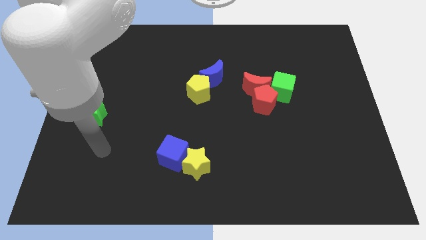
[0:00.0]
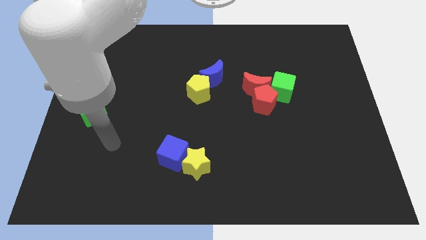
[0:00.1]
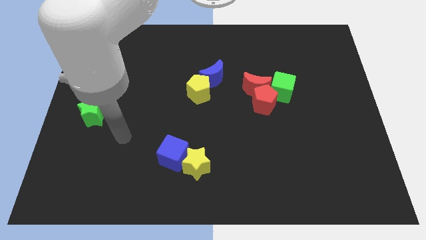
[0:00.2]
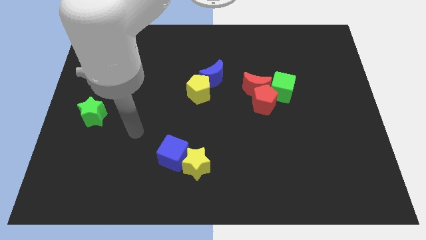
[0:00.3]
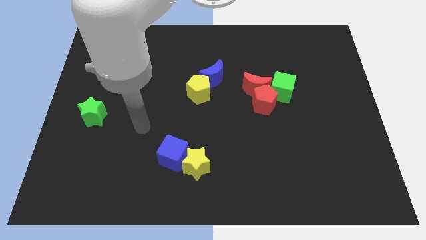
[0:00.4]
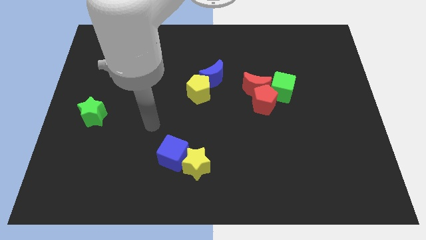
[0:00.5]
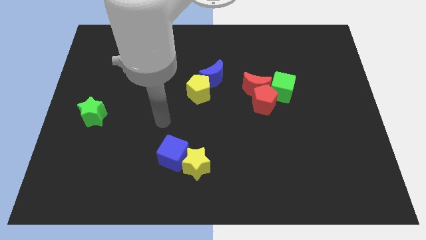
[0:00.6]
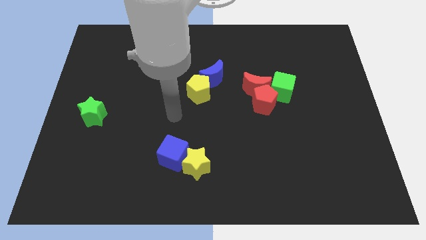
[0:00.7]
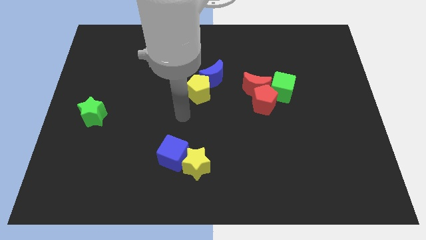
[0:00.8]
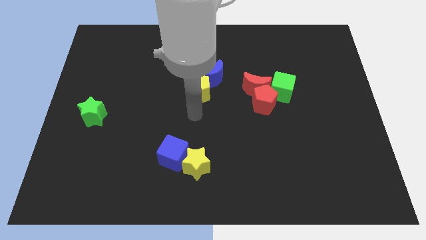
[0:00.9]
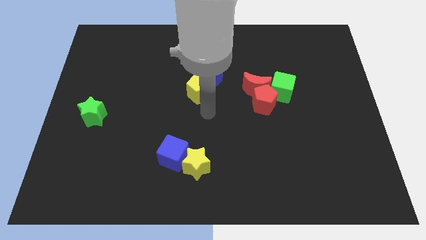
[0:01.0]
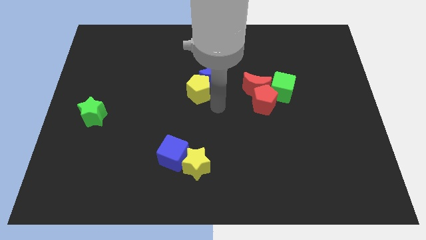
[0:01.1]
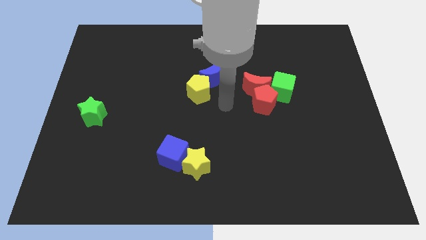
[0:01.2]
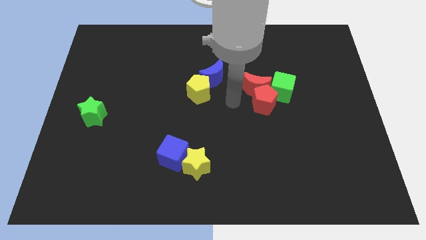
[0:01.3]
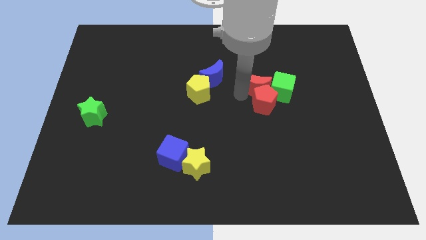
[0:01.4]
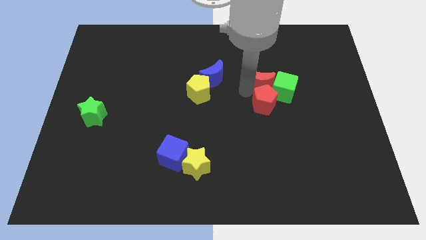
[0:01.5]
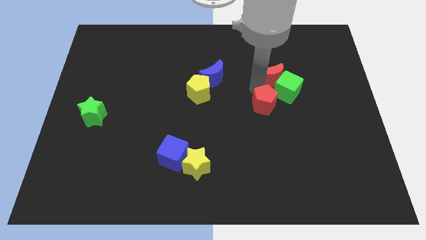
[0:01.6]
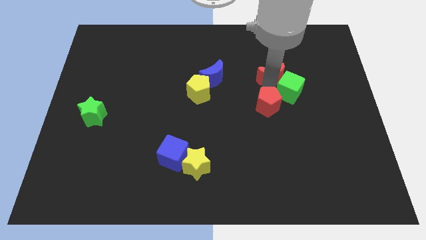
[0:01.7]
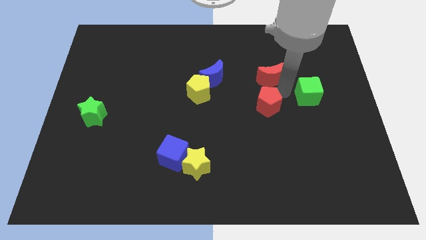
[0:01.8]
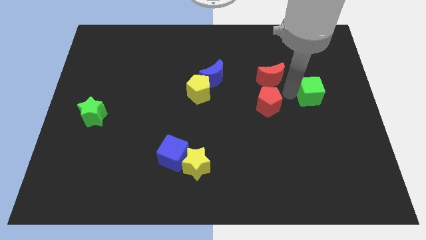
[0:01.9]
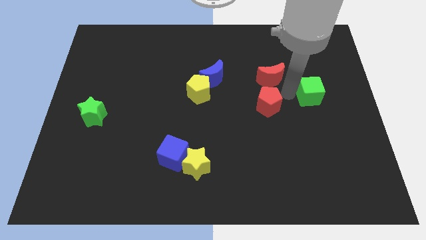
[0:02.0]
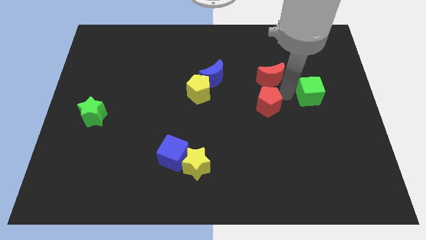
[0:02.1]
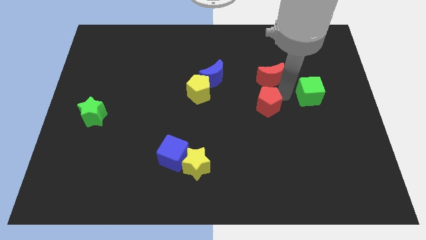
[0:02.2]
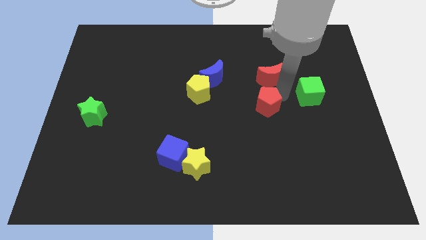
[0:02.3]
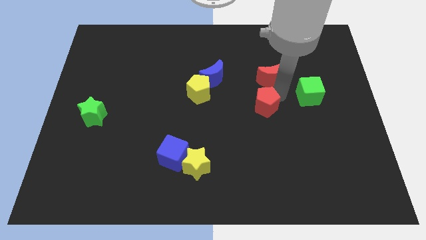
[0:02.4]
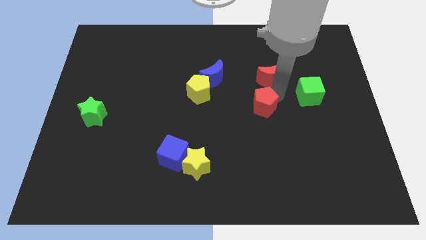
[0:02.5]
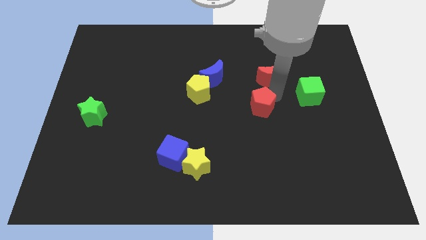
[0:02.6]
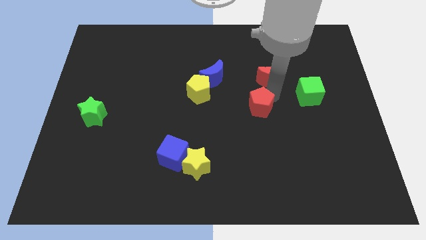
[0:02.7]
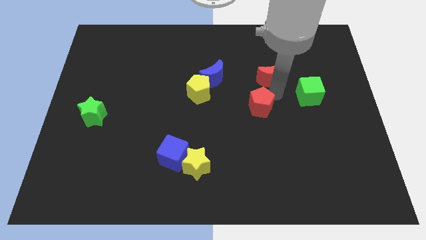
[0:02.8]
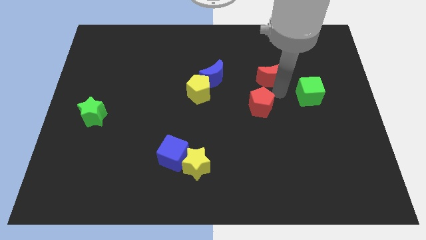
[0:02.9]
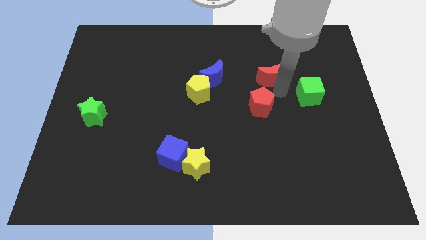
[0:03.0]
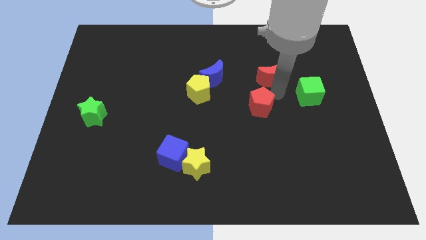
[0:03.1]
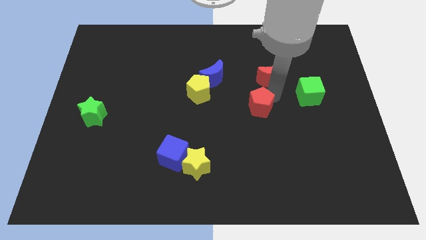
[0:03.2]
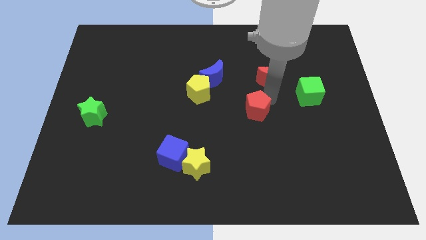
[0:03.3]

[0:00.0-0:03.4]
pull the red pentagon apart from the red moon and green cube

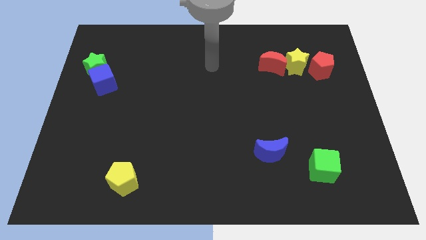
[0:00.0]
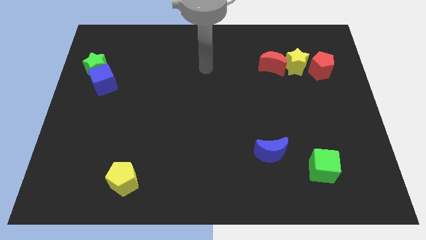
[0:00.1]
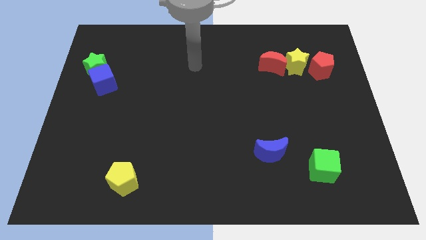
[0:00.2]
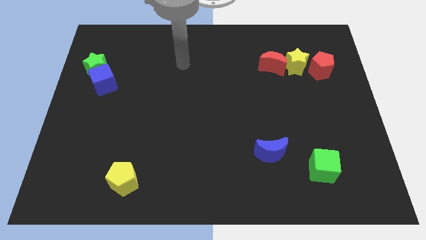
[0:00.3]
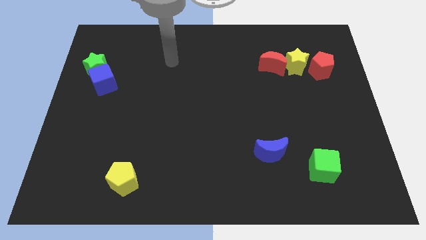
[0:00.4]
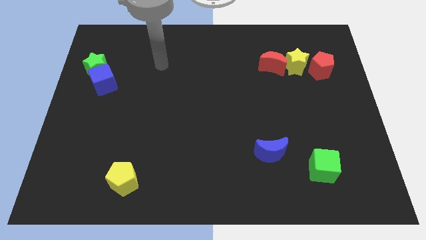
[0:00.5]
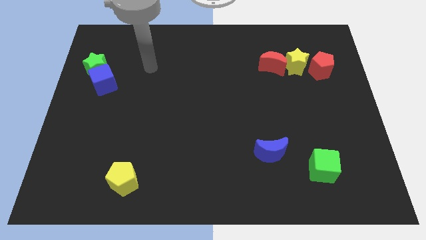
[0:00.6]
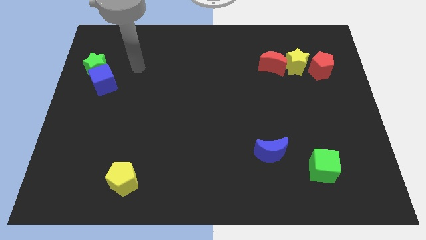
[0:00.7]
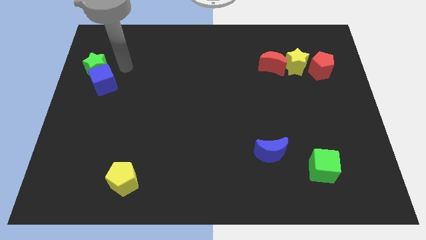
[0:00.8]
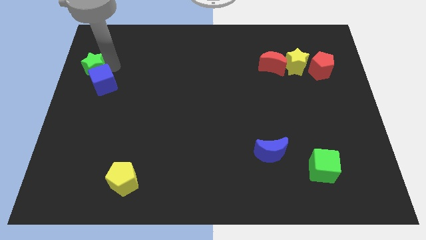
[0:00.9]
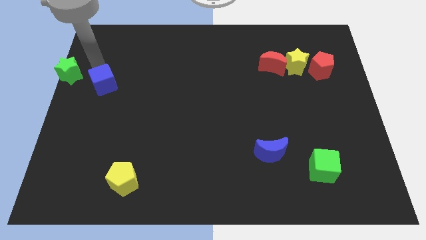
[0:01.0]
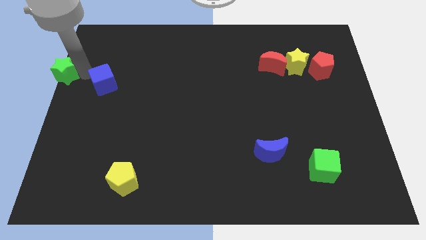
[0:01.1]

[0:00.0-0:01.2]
separate the blue cube from the green star

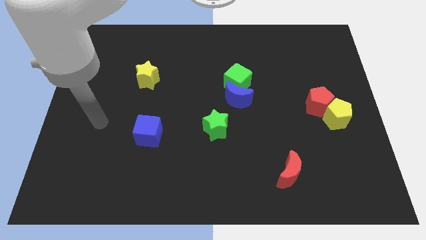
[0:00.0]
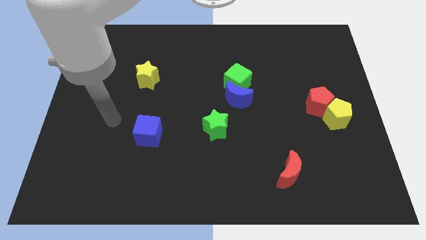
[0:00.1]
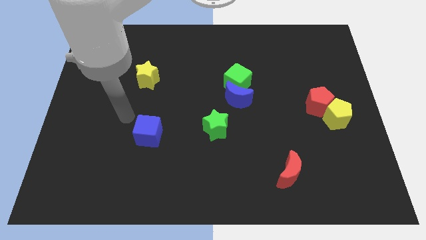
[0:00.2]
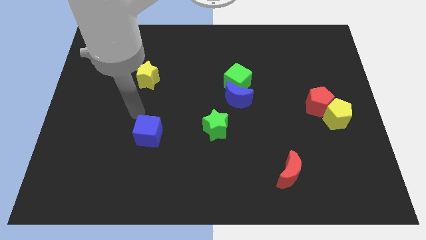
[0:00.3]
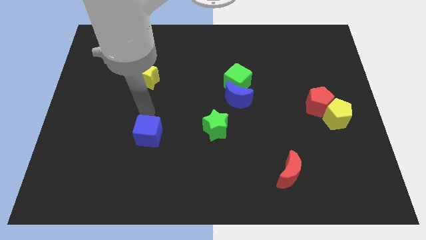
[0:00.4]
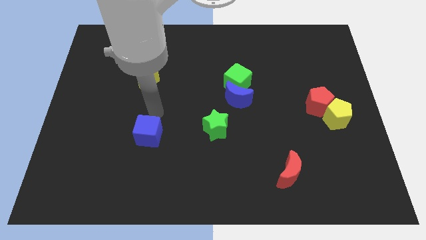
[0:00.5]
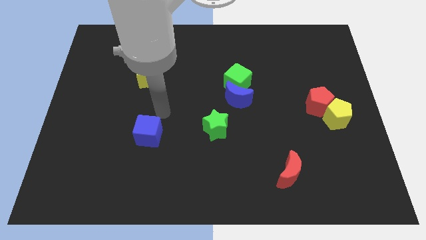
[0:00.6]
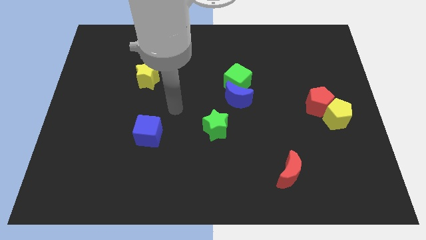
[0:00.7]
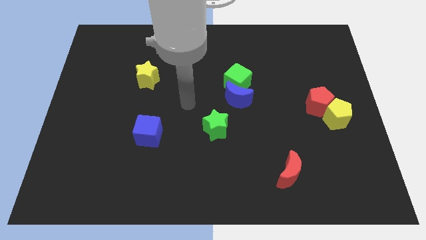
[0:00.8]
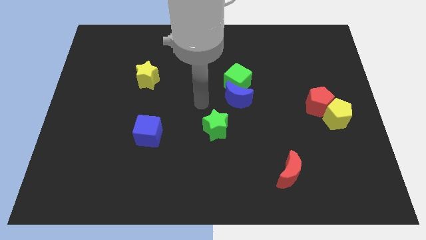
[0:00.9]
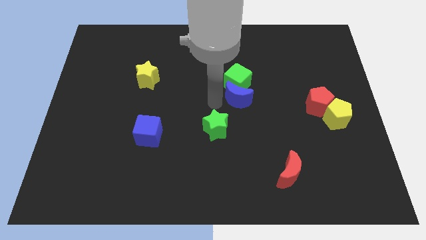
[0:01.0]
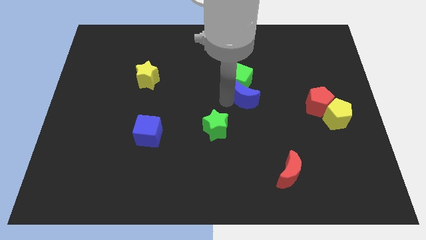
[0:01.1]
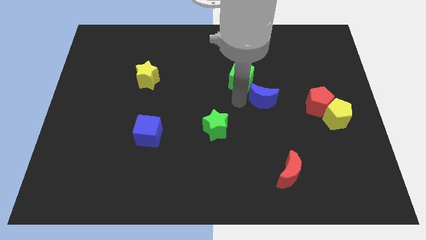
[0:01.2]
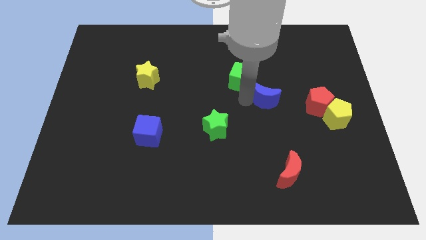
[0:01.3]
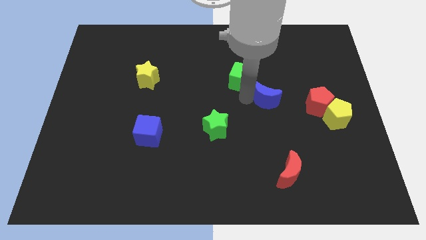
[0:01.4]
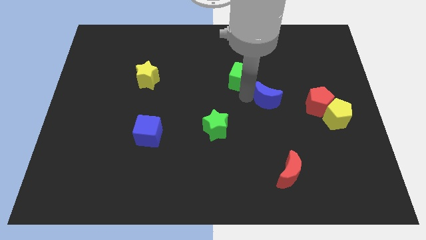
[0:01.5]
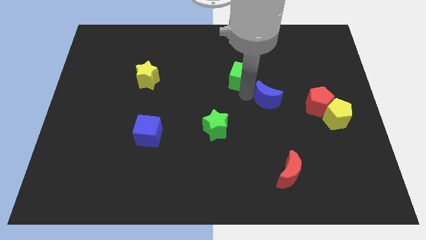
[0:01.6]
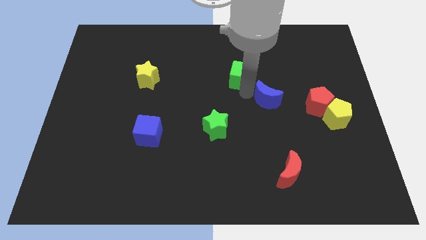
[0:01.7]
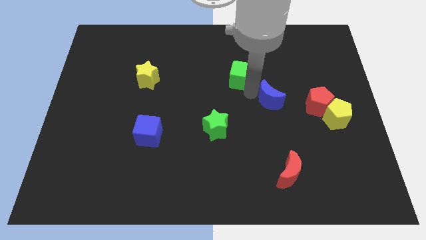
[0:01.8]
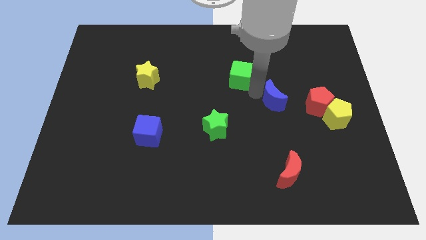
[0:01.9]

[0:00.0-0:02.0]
move the green cube away from the blue moon

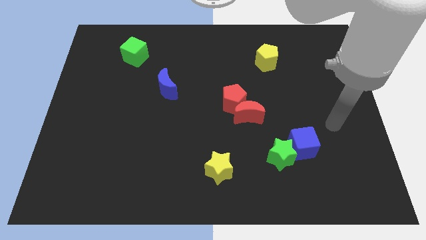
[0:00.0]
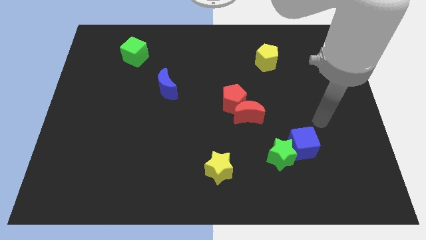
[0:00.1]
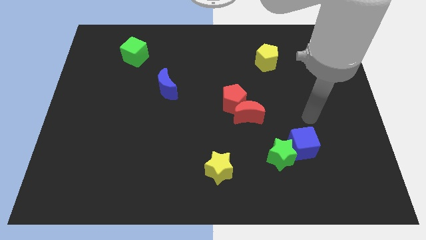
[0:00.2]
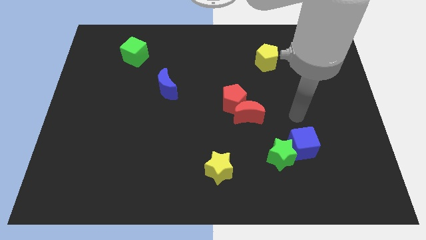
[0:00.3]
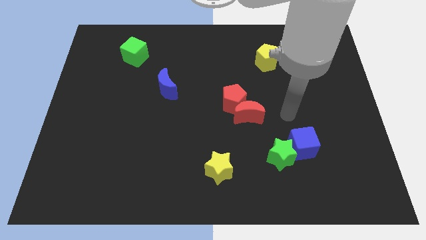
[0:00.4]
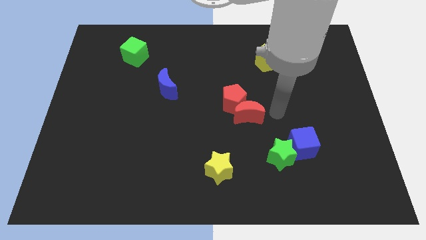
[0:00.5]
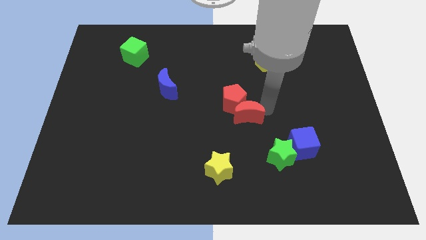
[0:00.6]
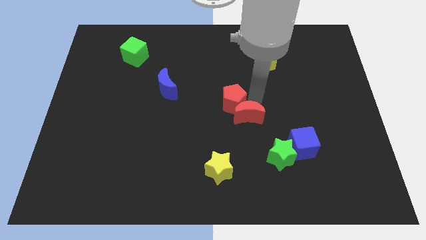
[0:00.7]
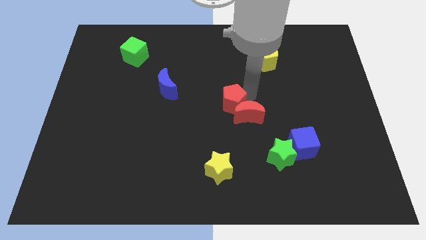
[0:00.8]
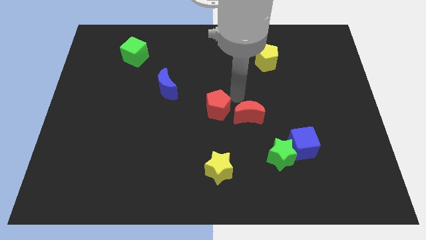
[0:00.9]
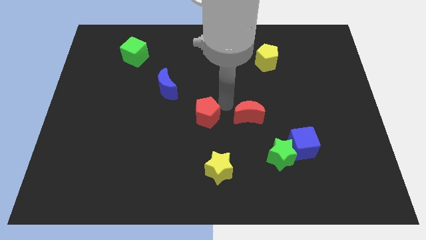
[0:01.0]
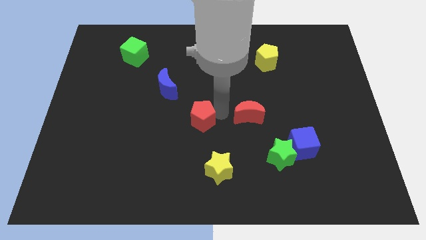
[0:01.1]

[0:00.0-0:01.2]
pull the red moon apart from the red pentagon

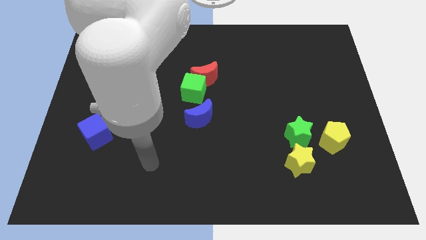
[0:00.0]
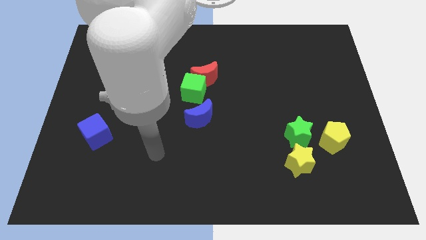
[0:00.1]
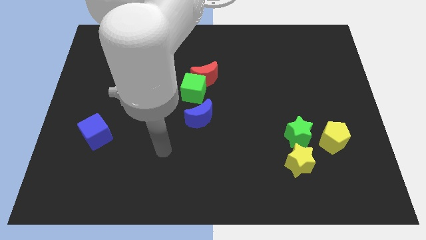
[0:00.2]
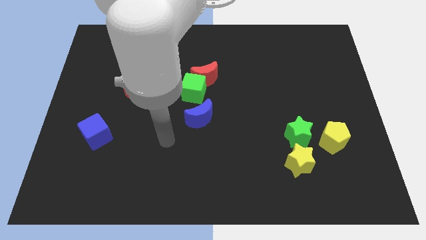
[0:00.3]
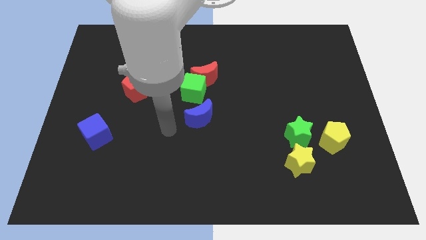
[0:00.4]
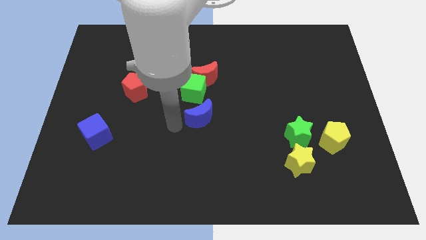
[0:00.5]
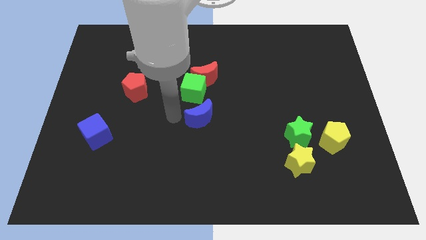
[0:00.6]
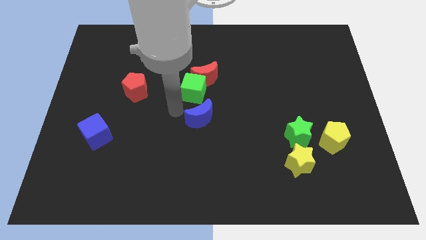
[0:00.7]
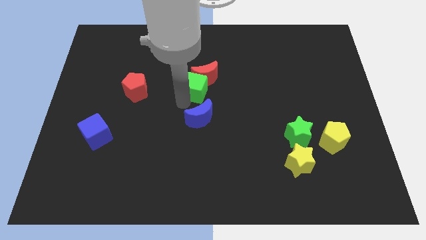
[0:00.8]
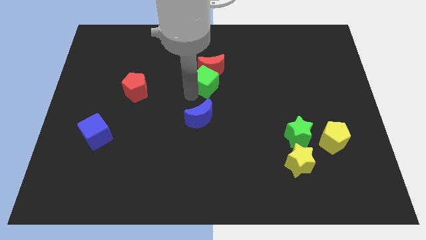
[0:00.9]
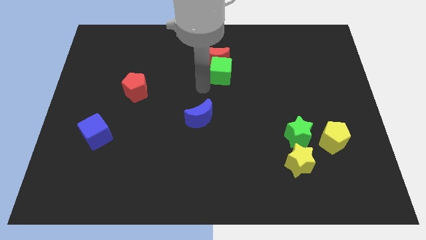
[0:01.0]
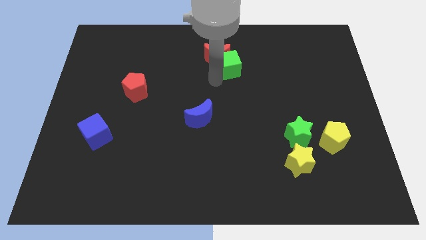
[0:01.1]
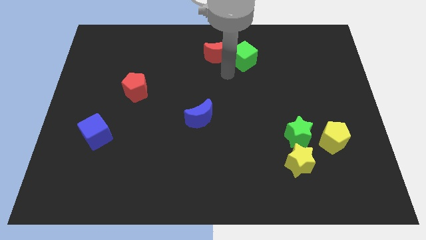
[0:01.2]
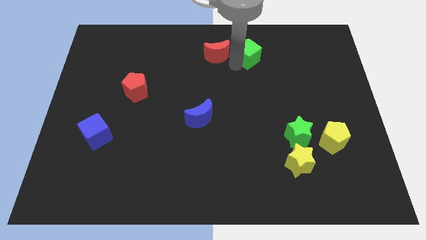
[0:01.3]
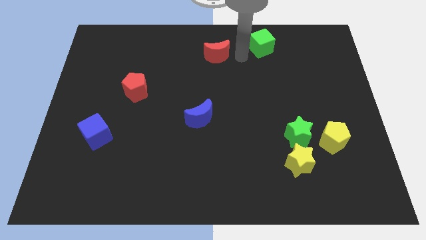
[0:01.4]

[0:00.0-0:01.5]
pull the red moon apart from the green cube
